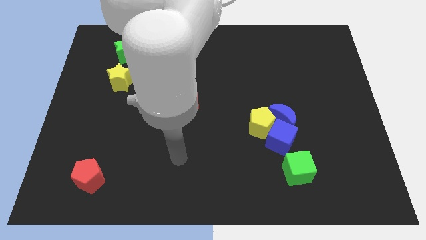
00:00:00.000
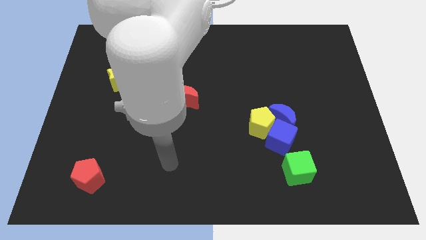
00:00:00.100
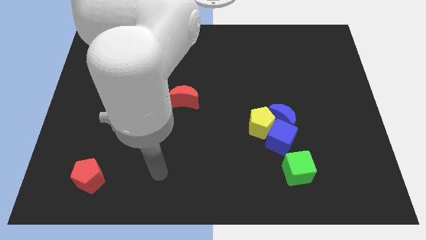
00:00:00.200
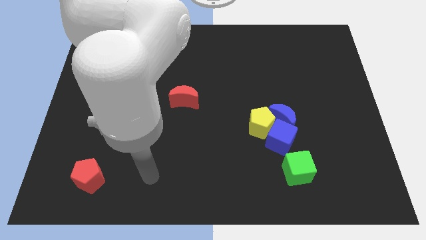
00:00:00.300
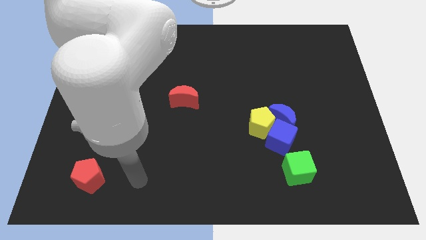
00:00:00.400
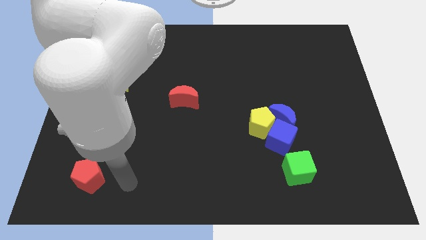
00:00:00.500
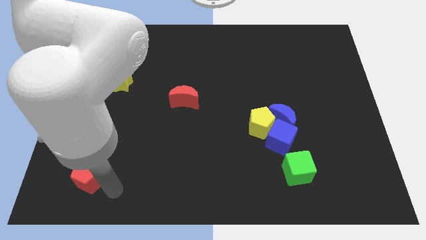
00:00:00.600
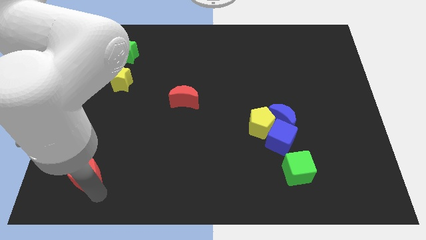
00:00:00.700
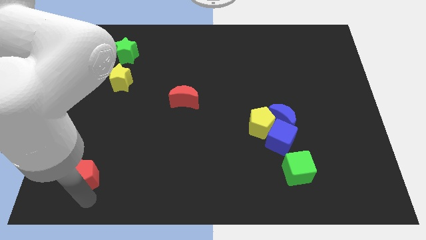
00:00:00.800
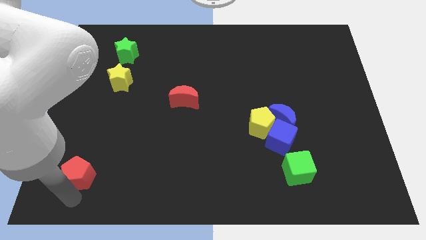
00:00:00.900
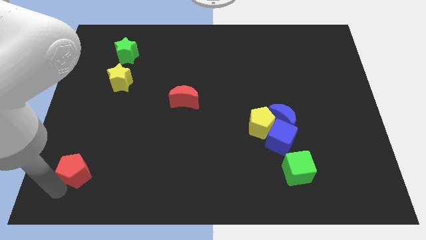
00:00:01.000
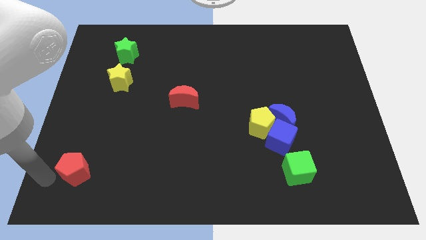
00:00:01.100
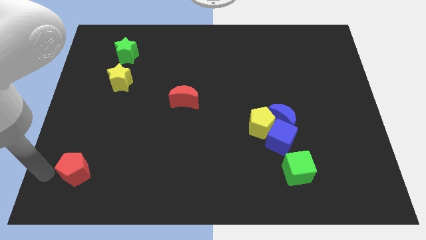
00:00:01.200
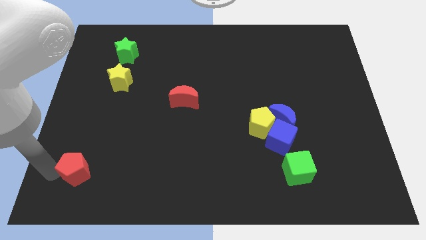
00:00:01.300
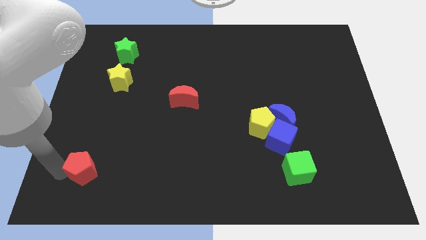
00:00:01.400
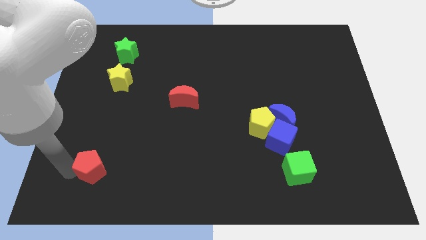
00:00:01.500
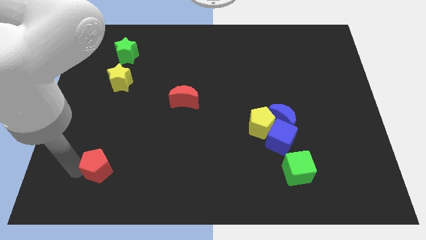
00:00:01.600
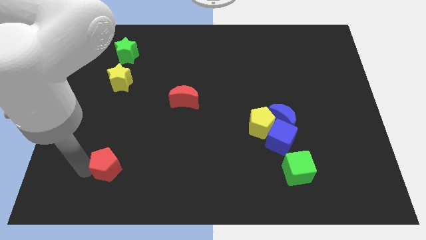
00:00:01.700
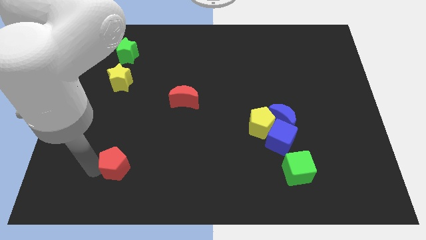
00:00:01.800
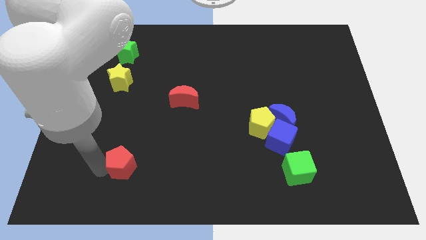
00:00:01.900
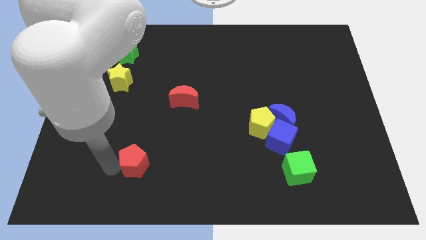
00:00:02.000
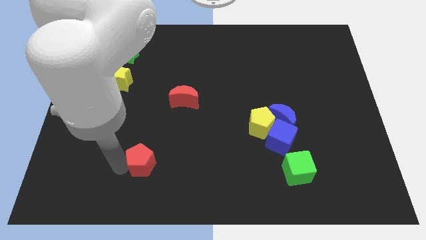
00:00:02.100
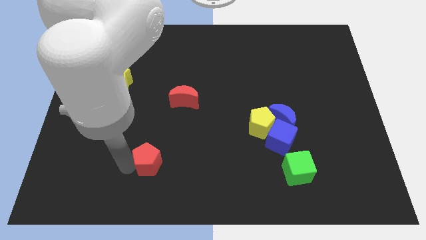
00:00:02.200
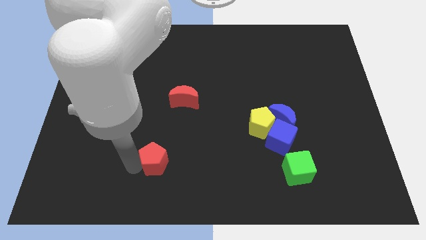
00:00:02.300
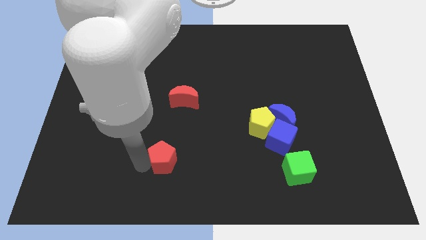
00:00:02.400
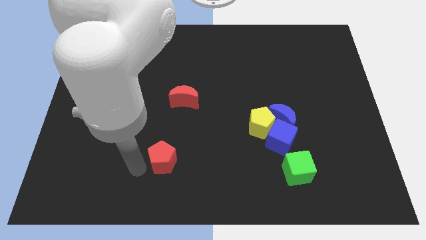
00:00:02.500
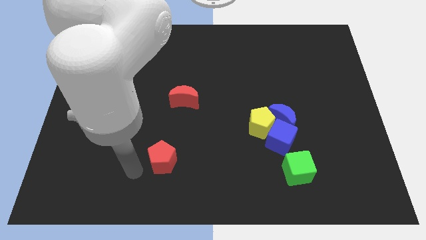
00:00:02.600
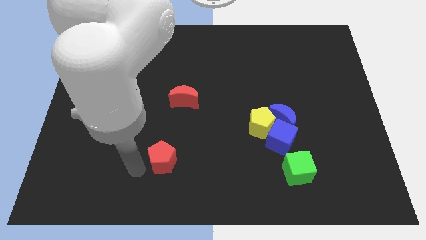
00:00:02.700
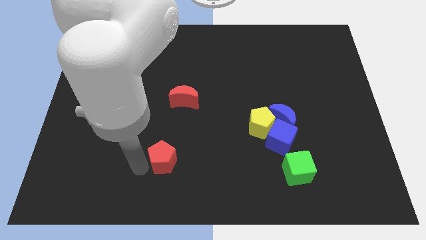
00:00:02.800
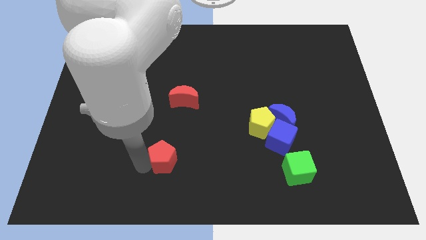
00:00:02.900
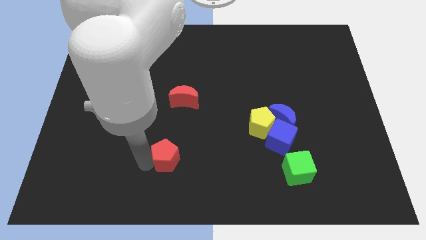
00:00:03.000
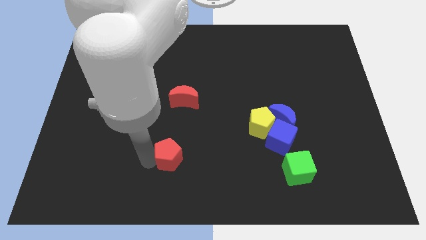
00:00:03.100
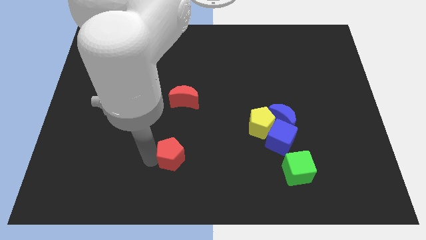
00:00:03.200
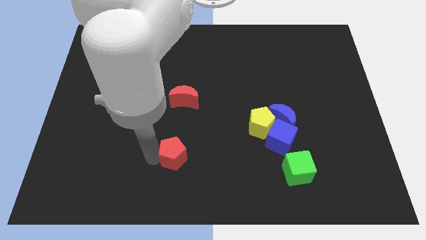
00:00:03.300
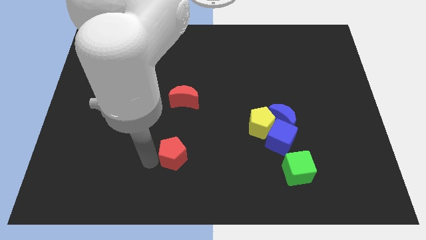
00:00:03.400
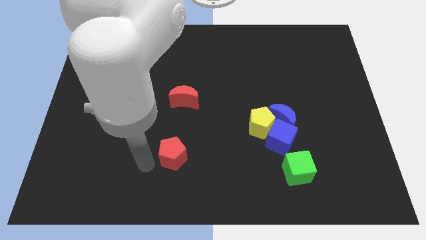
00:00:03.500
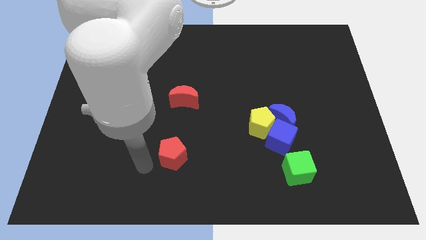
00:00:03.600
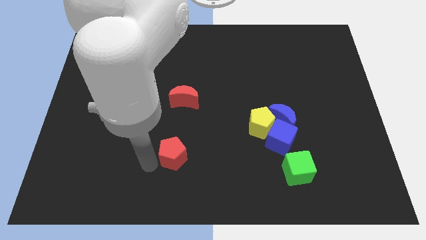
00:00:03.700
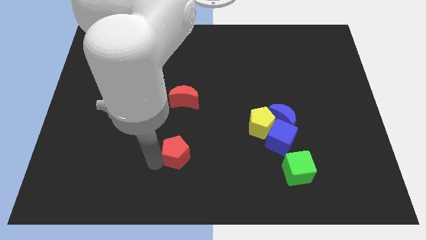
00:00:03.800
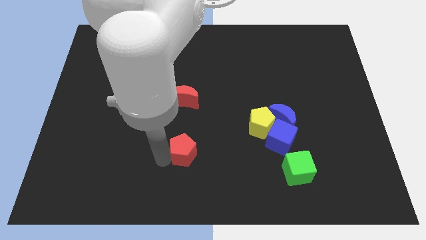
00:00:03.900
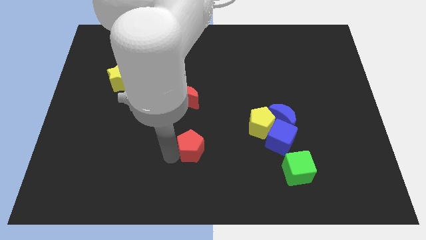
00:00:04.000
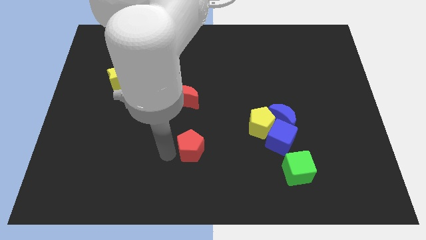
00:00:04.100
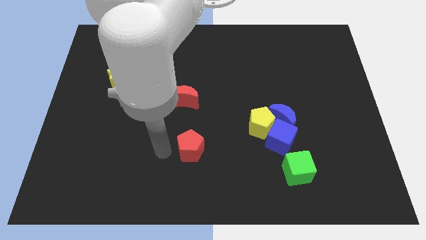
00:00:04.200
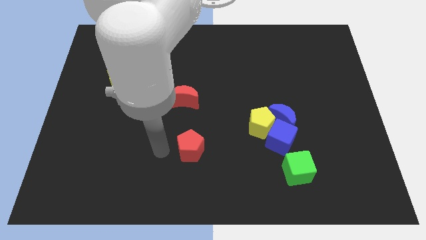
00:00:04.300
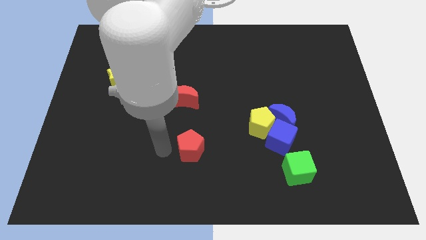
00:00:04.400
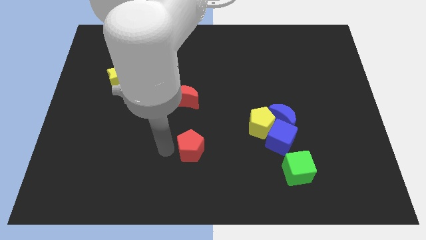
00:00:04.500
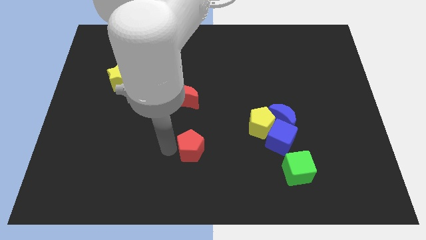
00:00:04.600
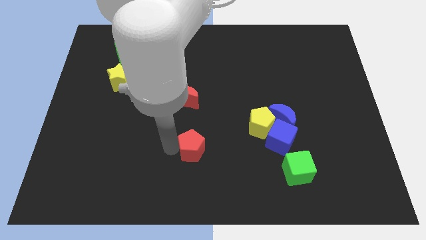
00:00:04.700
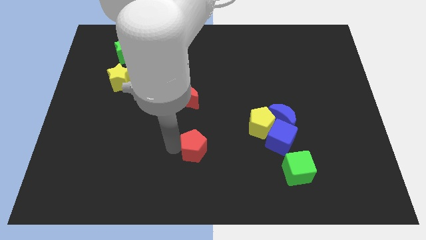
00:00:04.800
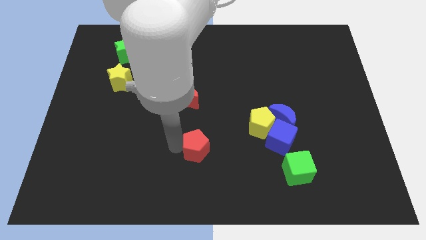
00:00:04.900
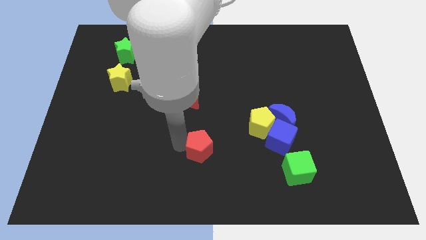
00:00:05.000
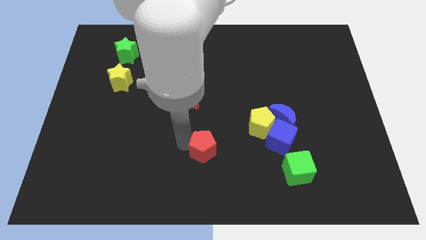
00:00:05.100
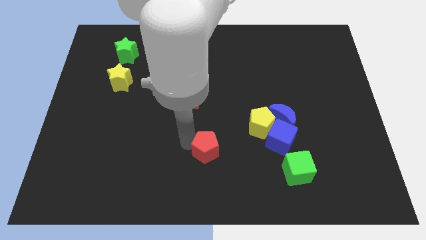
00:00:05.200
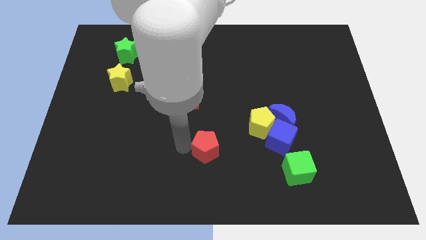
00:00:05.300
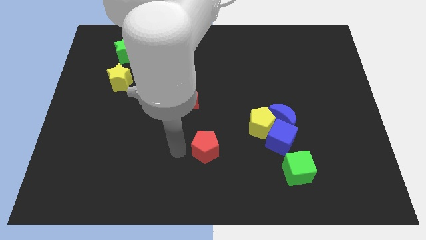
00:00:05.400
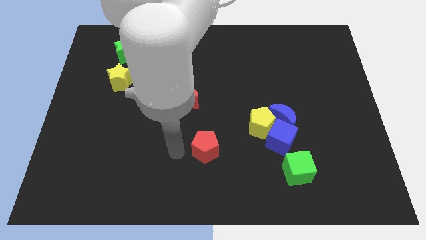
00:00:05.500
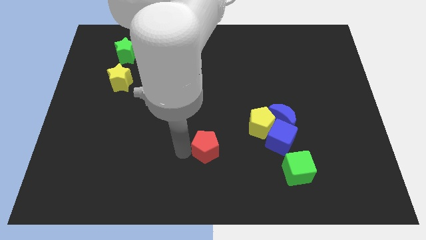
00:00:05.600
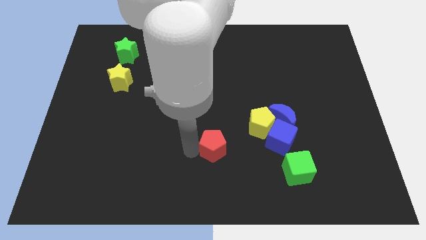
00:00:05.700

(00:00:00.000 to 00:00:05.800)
slide the red pentagon diagonally down and to the left of the yellow pentagon

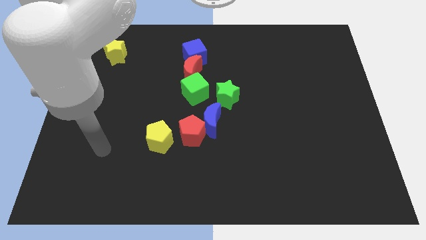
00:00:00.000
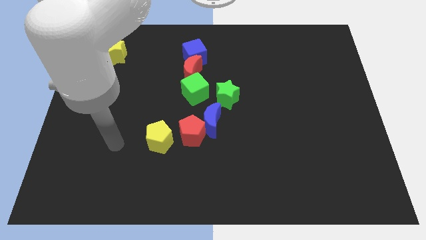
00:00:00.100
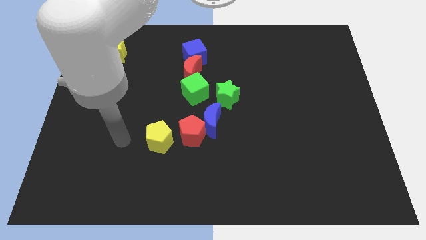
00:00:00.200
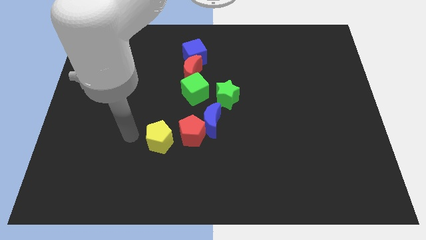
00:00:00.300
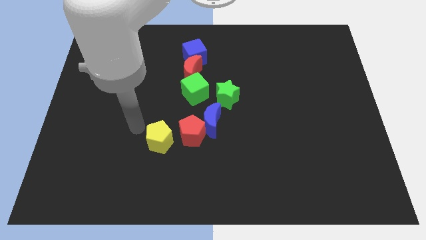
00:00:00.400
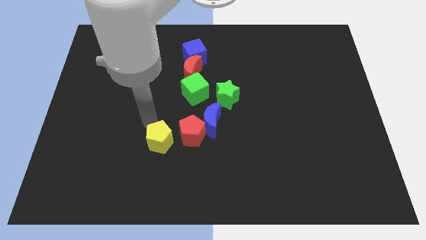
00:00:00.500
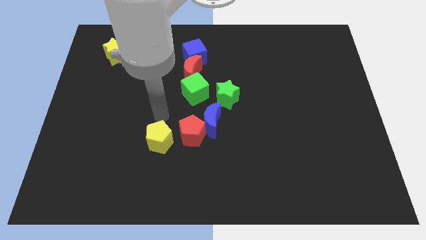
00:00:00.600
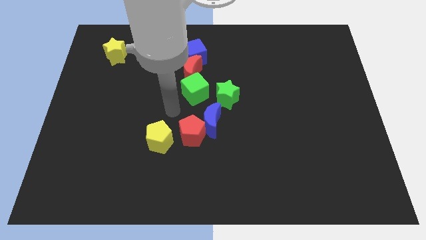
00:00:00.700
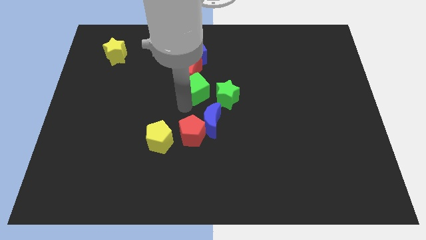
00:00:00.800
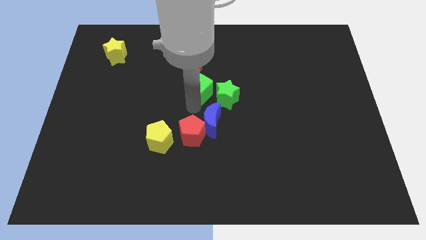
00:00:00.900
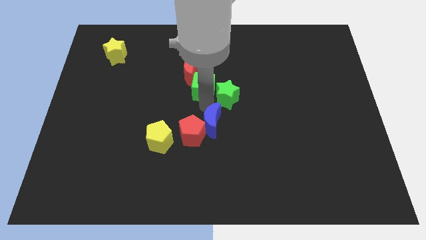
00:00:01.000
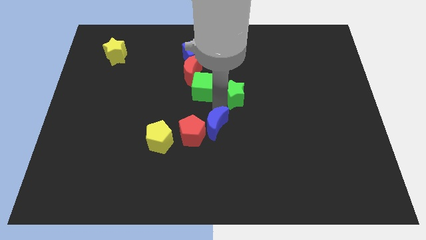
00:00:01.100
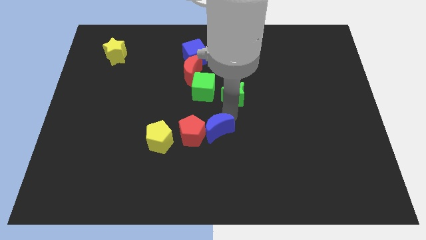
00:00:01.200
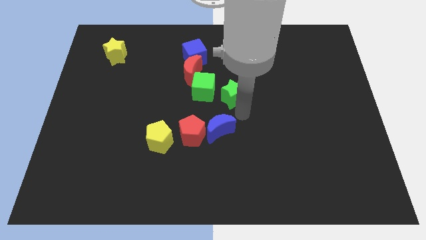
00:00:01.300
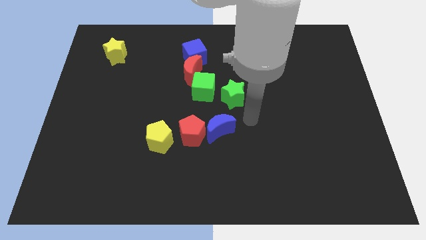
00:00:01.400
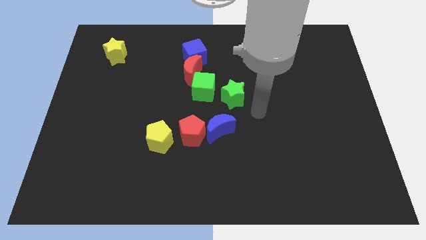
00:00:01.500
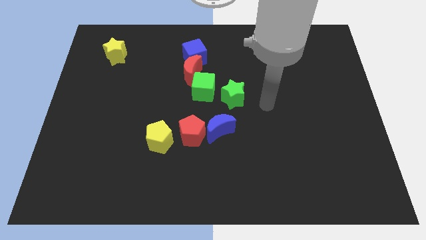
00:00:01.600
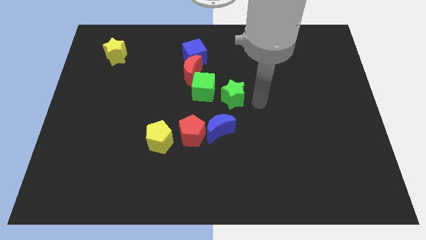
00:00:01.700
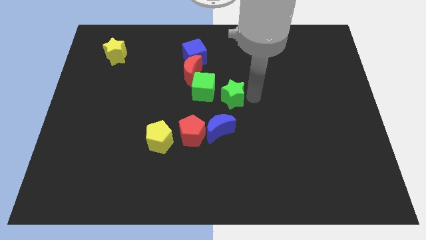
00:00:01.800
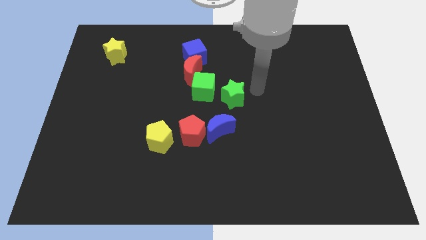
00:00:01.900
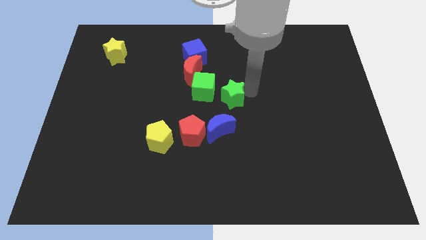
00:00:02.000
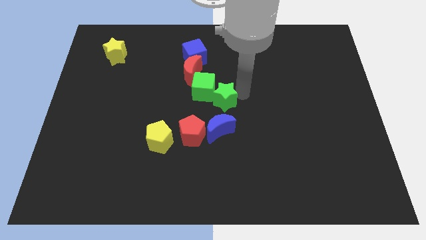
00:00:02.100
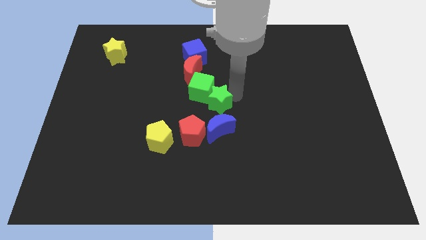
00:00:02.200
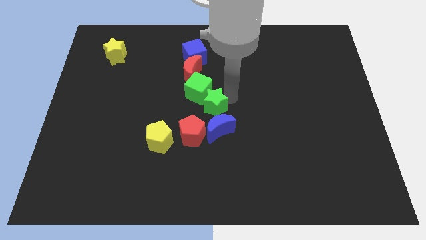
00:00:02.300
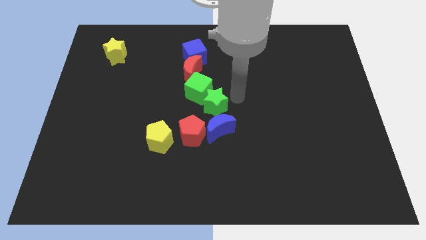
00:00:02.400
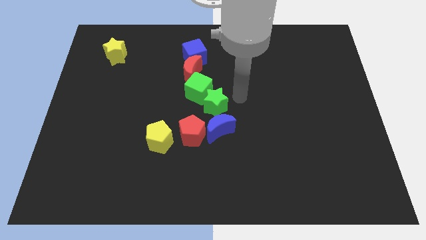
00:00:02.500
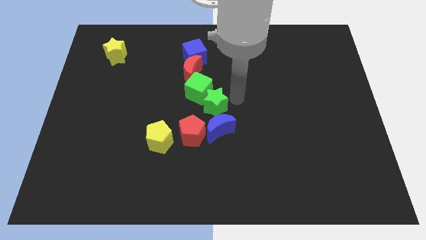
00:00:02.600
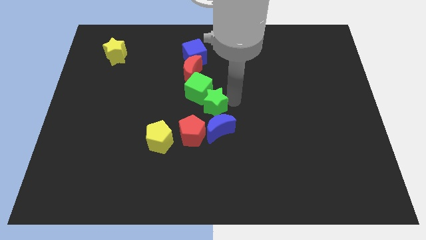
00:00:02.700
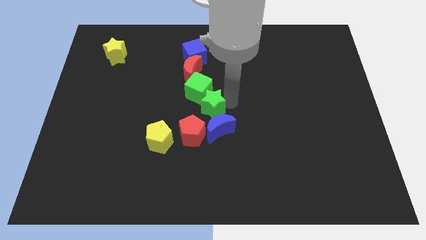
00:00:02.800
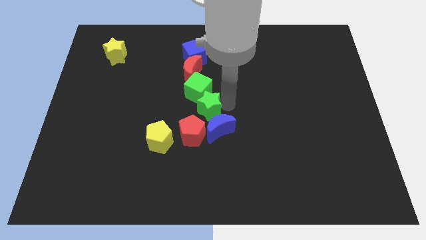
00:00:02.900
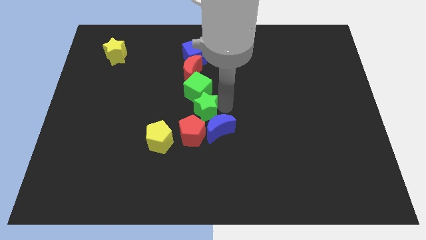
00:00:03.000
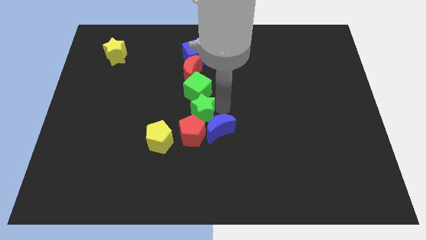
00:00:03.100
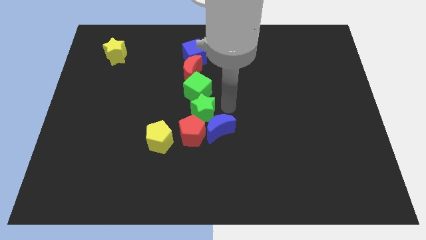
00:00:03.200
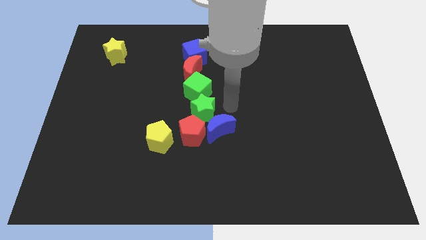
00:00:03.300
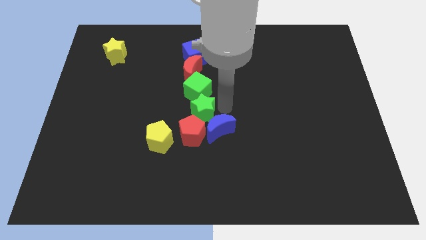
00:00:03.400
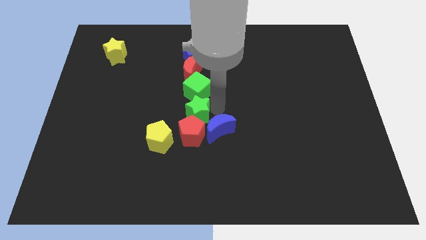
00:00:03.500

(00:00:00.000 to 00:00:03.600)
move the green star to the left of the blue moon
